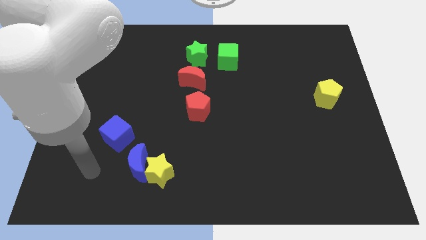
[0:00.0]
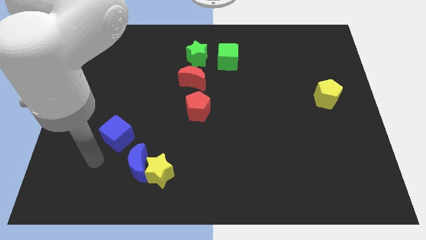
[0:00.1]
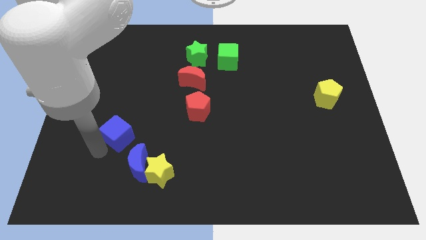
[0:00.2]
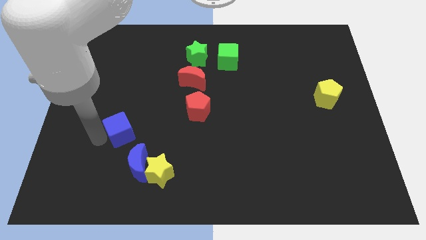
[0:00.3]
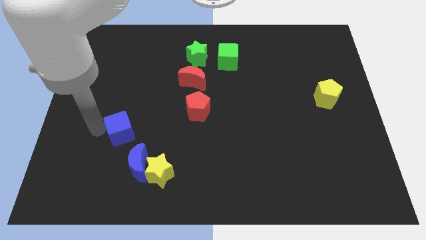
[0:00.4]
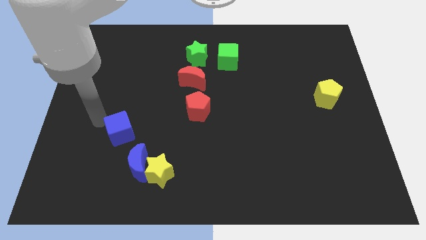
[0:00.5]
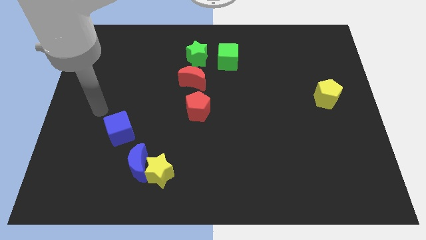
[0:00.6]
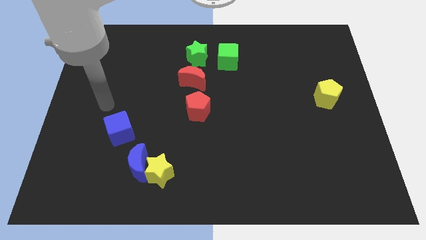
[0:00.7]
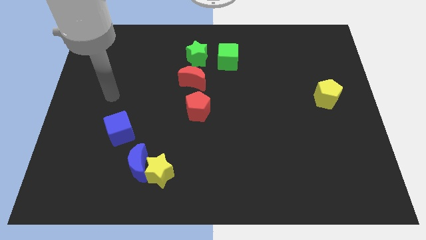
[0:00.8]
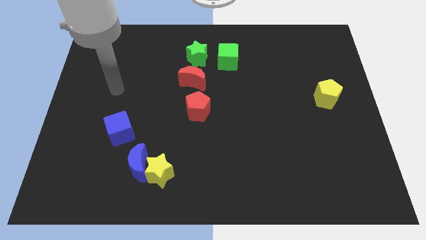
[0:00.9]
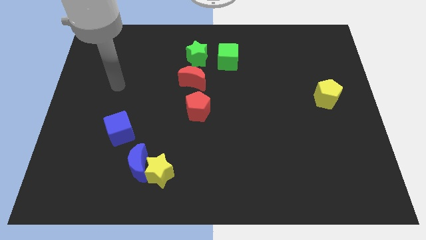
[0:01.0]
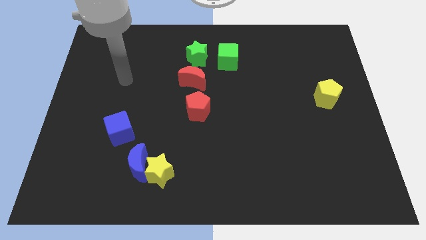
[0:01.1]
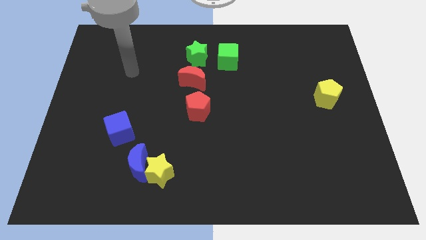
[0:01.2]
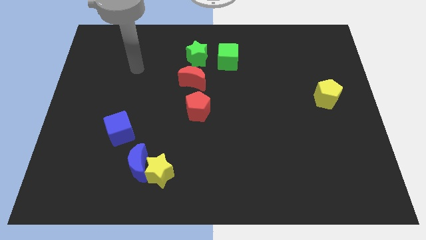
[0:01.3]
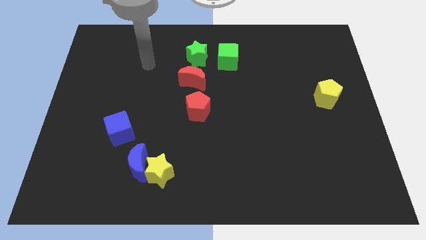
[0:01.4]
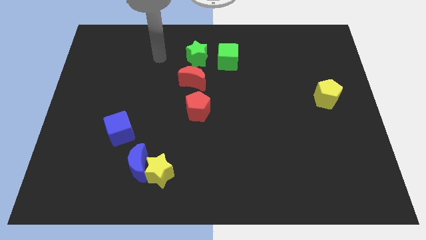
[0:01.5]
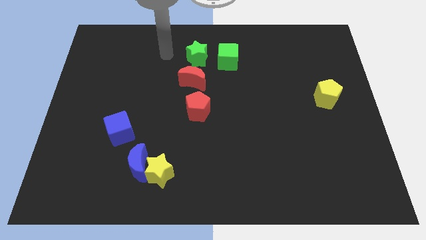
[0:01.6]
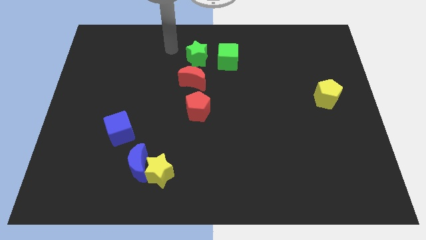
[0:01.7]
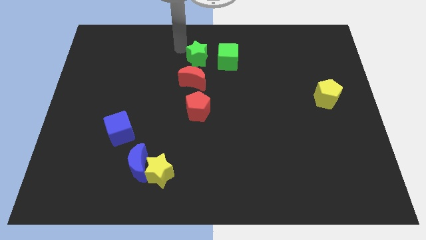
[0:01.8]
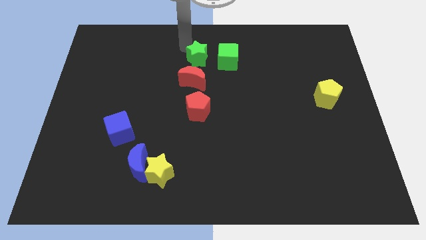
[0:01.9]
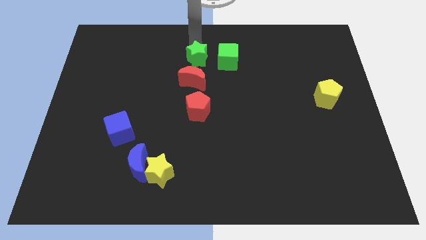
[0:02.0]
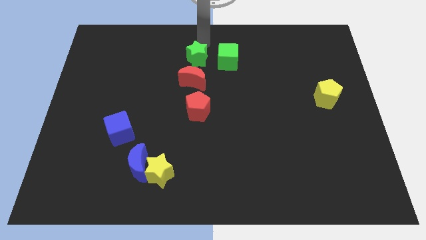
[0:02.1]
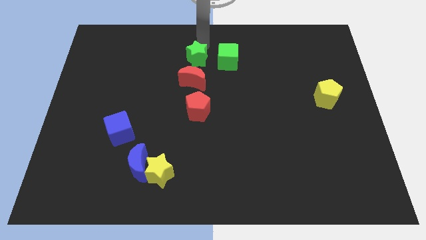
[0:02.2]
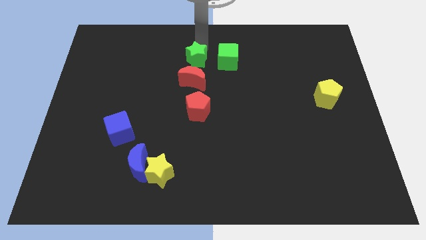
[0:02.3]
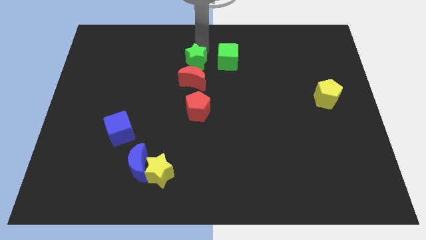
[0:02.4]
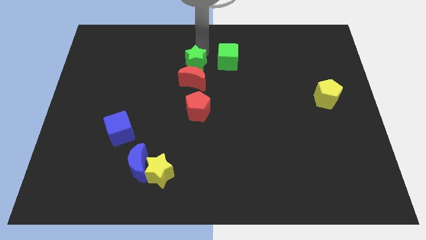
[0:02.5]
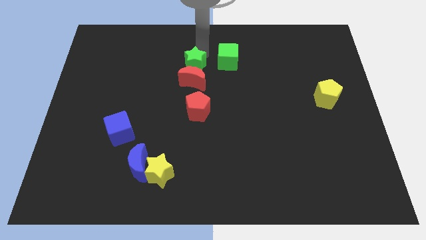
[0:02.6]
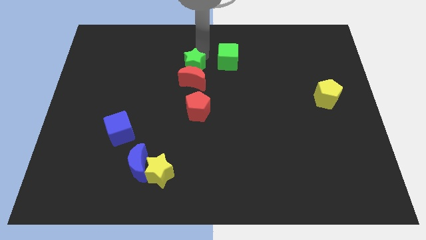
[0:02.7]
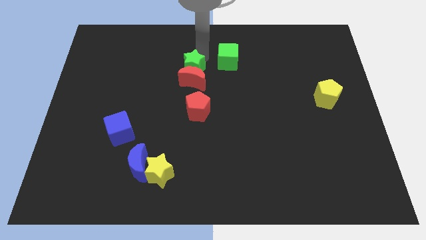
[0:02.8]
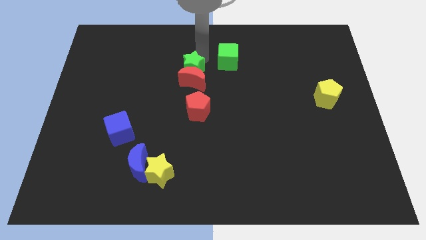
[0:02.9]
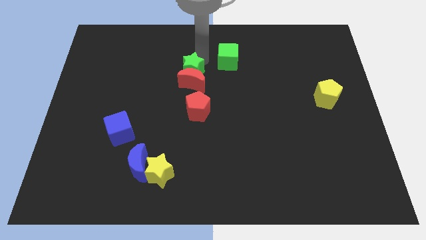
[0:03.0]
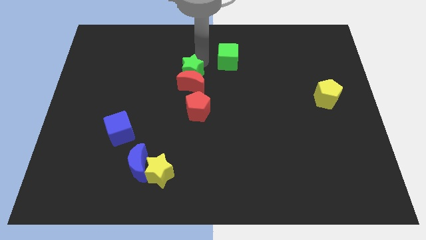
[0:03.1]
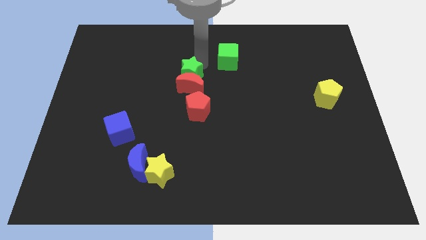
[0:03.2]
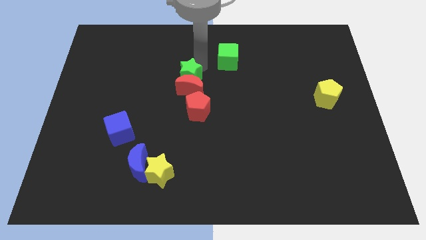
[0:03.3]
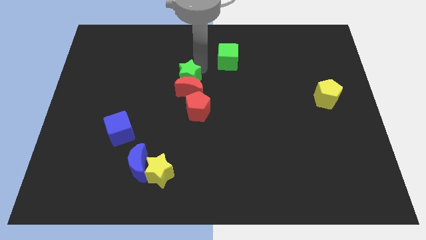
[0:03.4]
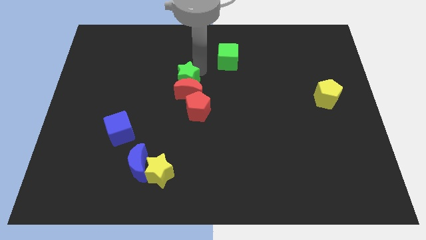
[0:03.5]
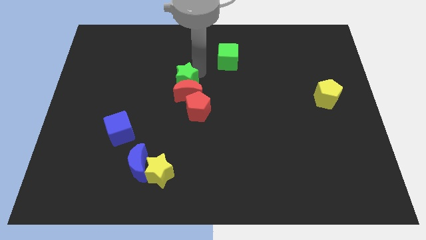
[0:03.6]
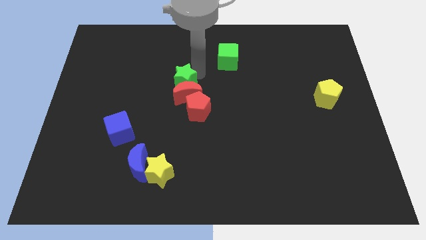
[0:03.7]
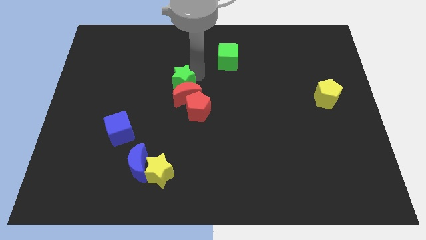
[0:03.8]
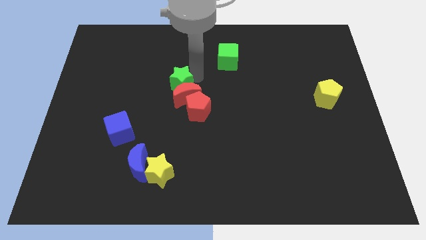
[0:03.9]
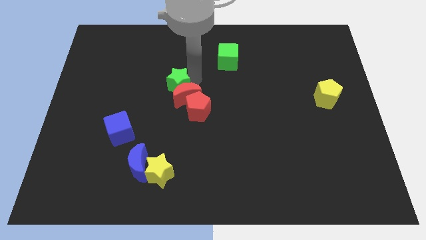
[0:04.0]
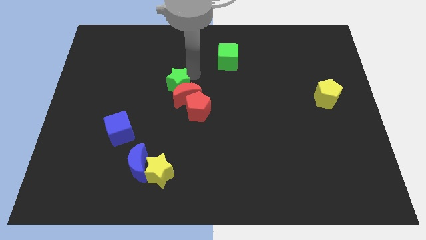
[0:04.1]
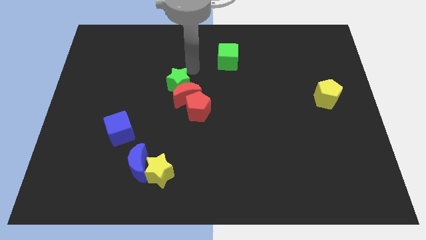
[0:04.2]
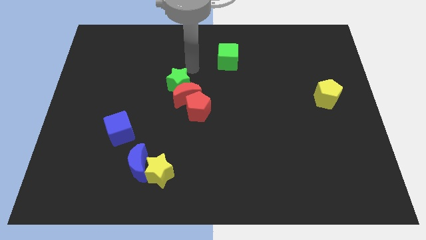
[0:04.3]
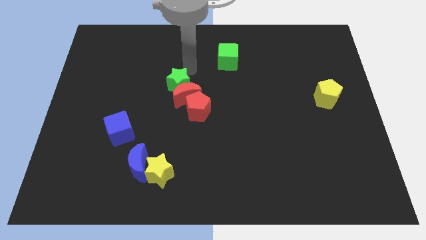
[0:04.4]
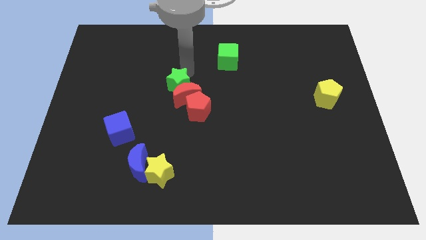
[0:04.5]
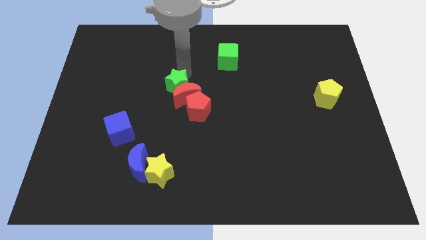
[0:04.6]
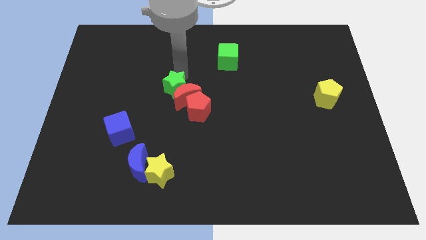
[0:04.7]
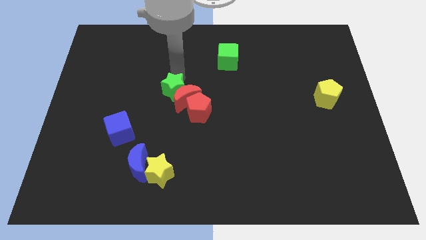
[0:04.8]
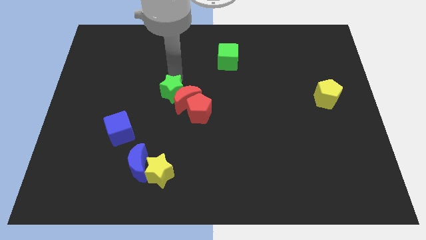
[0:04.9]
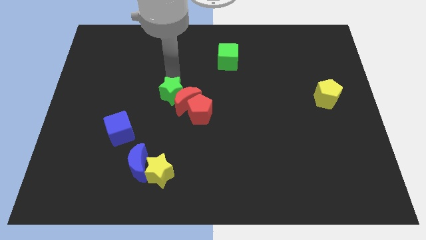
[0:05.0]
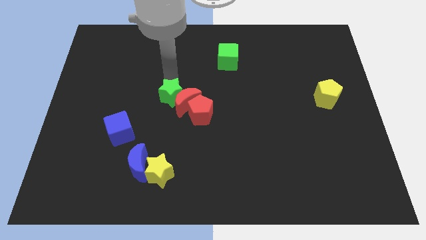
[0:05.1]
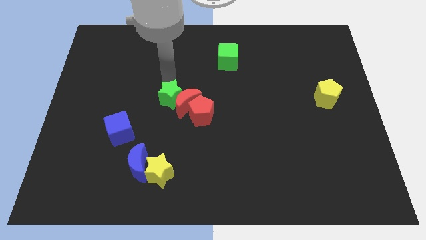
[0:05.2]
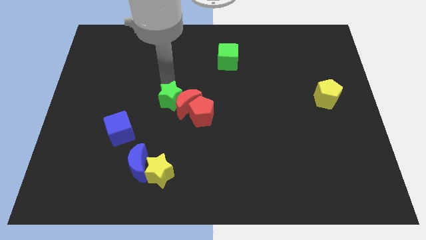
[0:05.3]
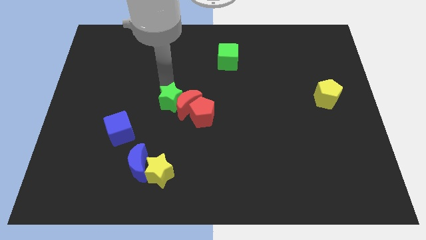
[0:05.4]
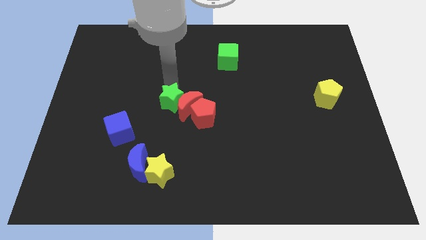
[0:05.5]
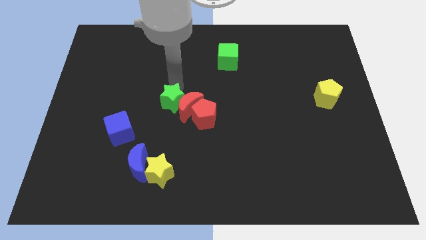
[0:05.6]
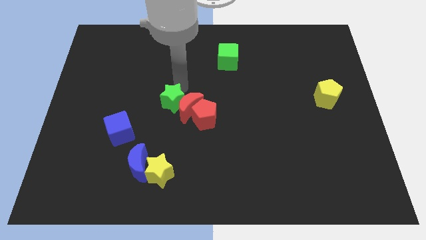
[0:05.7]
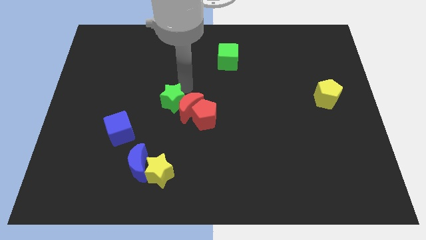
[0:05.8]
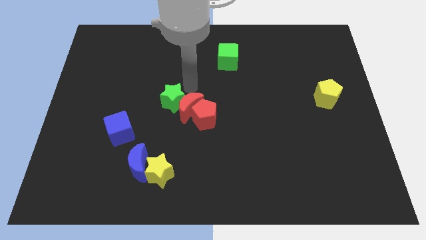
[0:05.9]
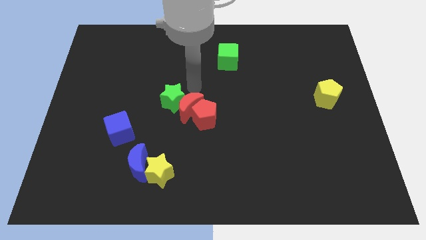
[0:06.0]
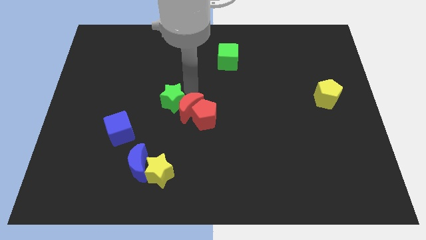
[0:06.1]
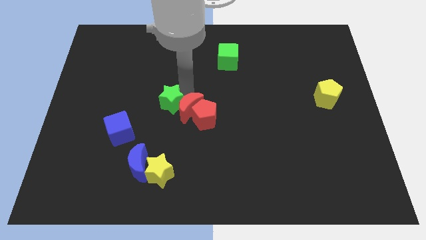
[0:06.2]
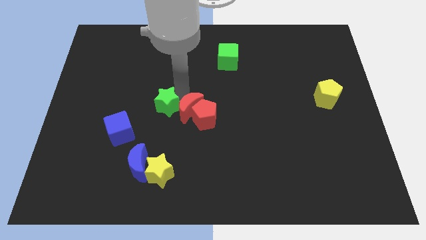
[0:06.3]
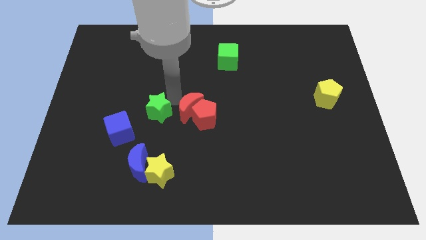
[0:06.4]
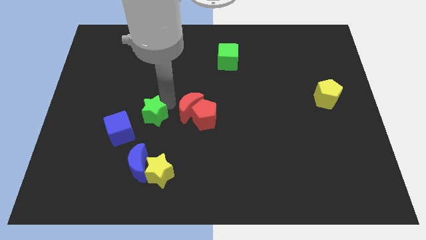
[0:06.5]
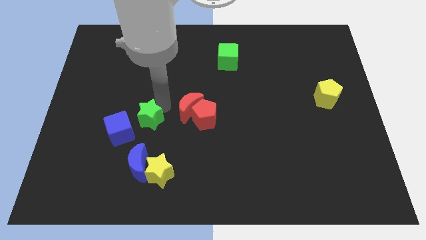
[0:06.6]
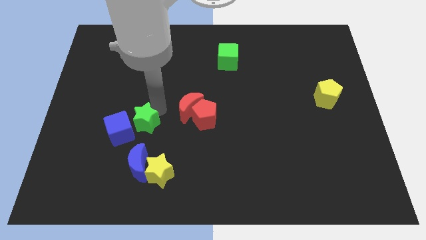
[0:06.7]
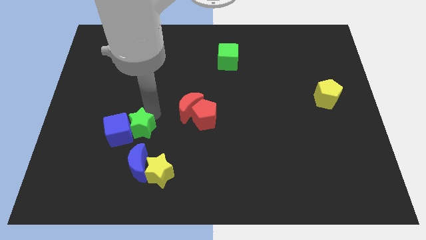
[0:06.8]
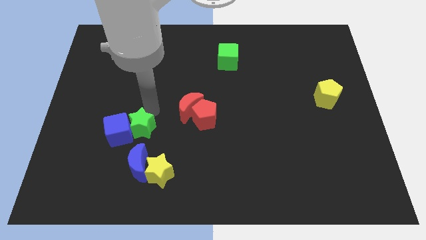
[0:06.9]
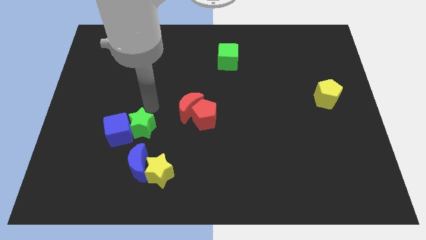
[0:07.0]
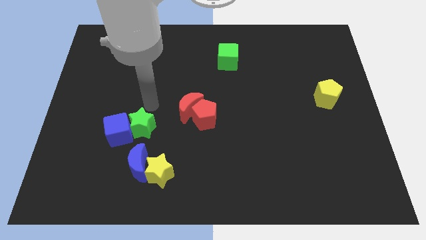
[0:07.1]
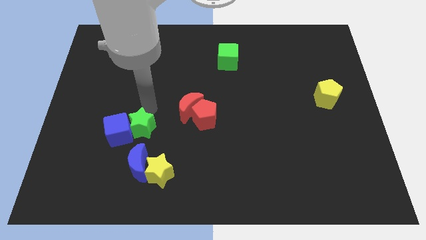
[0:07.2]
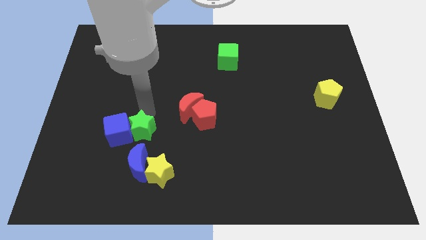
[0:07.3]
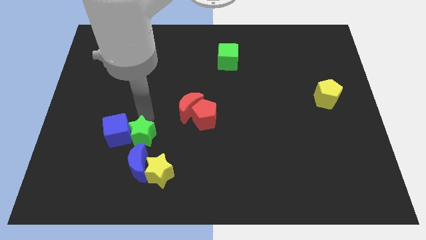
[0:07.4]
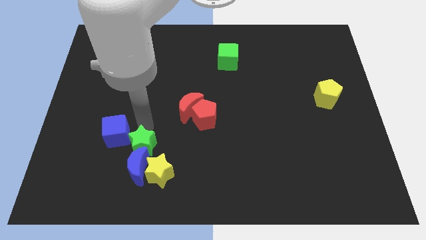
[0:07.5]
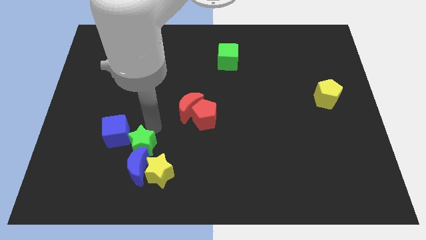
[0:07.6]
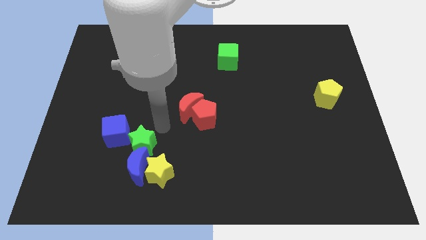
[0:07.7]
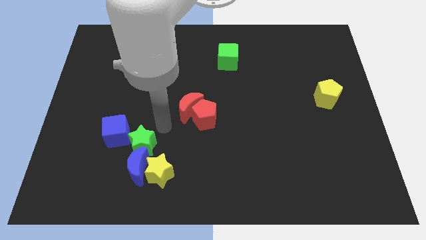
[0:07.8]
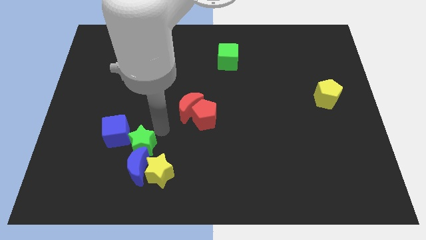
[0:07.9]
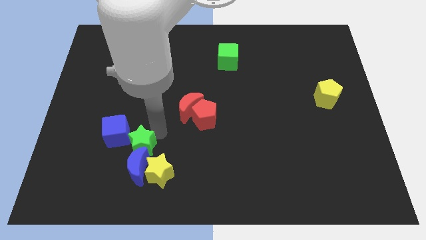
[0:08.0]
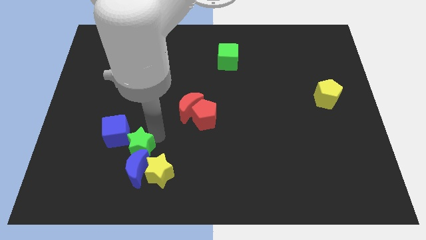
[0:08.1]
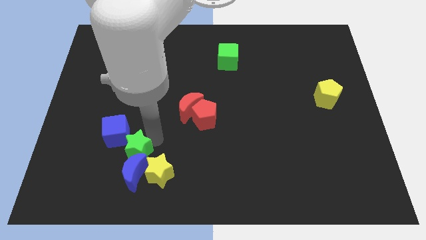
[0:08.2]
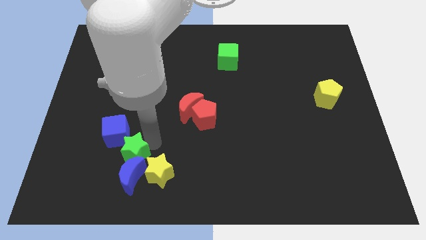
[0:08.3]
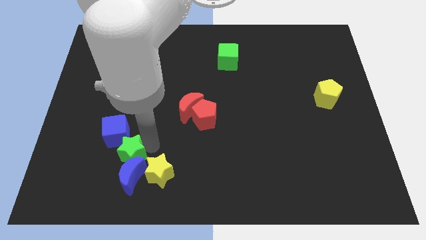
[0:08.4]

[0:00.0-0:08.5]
push the green star left of the yellow star
